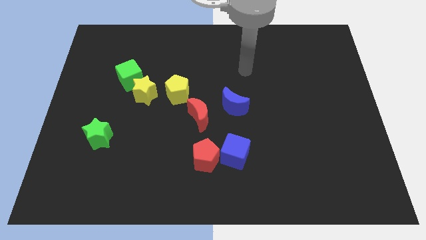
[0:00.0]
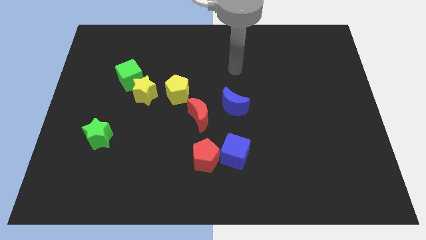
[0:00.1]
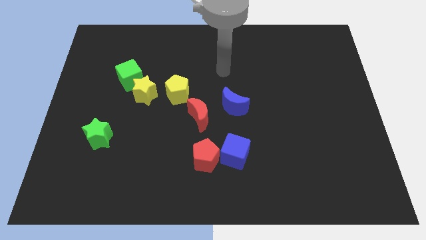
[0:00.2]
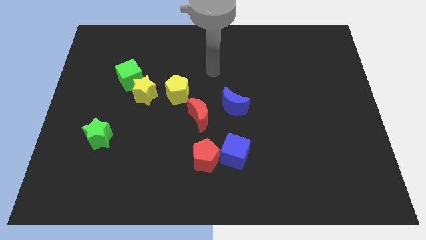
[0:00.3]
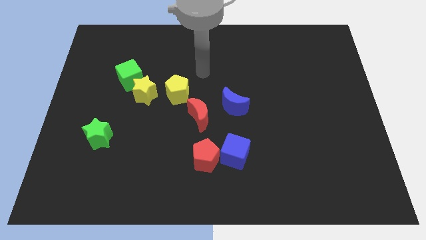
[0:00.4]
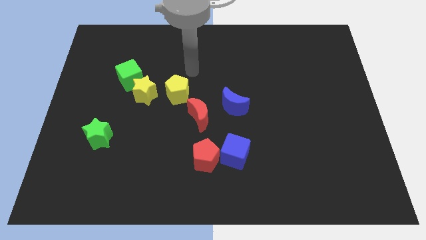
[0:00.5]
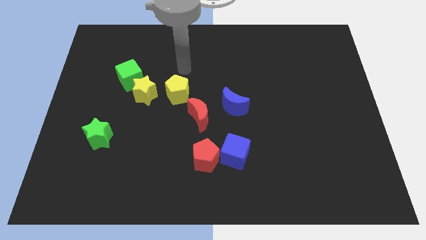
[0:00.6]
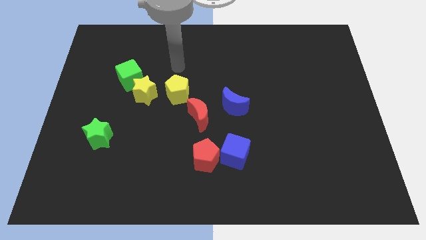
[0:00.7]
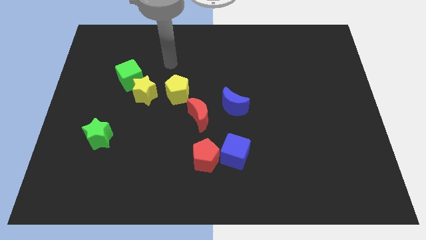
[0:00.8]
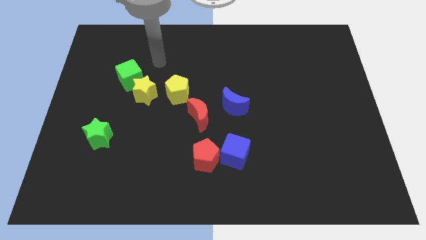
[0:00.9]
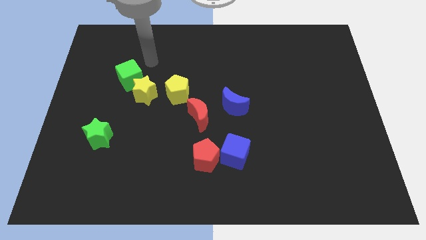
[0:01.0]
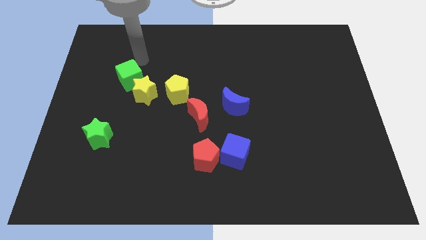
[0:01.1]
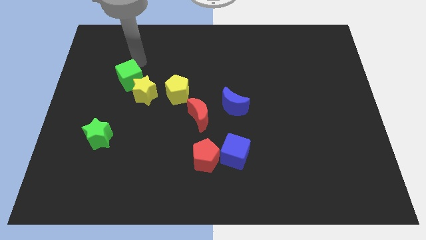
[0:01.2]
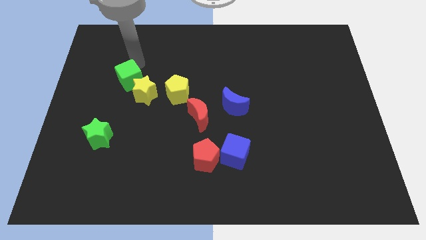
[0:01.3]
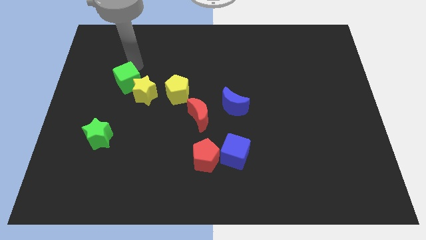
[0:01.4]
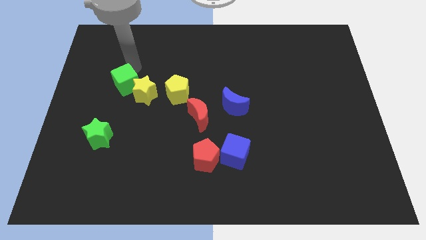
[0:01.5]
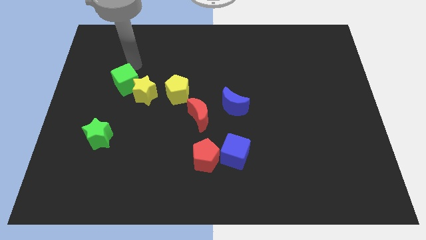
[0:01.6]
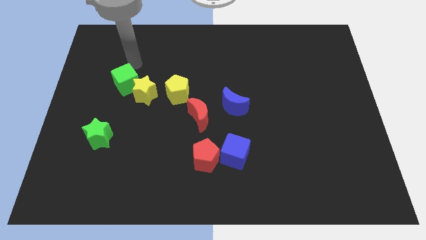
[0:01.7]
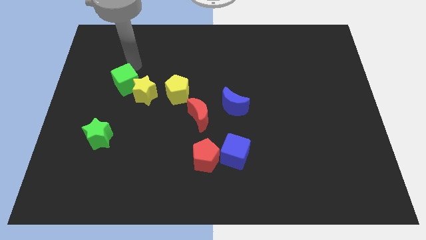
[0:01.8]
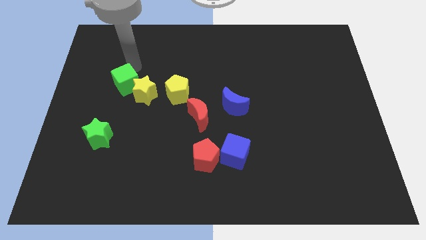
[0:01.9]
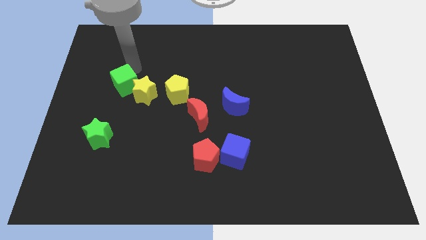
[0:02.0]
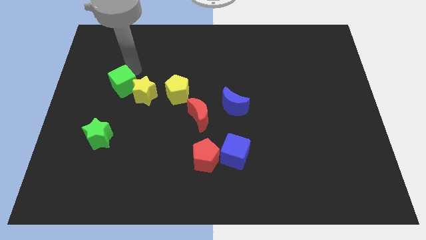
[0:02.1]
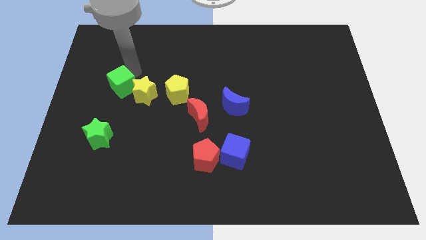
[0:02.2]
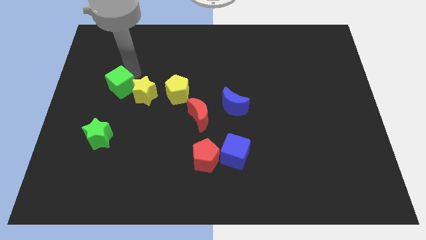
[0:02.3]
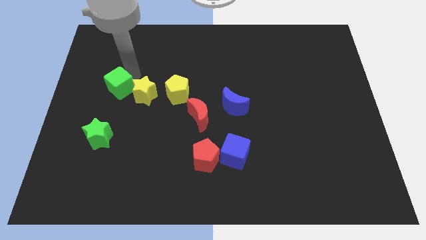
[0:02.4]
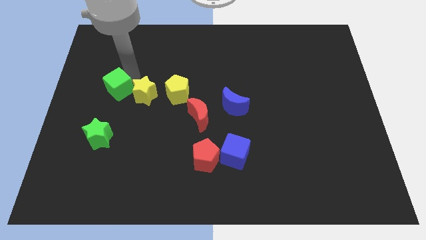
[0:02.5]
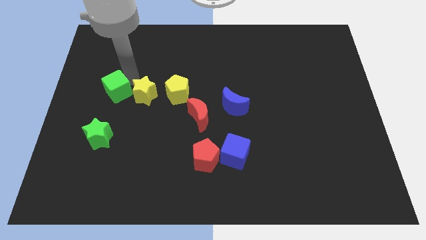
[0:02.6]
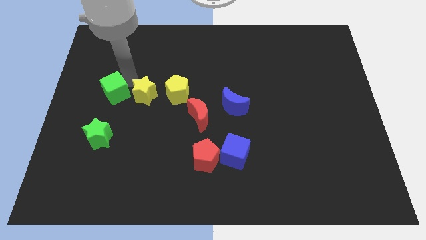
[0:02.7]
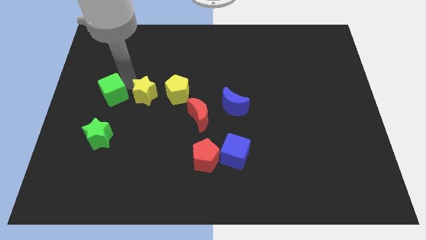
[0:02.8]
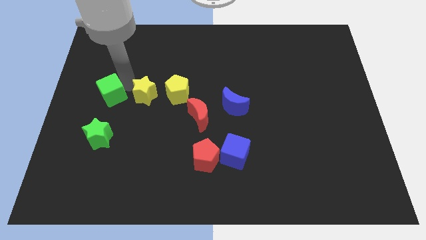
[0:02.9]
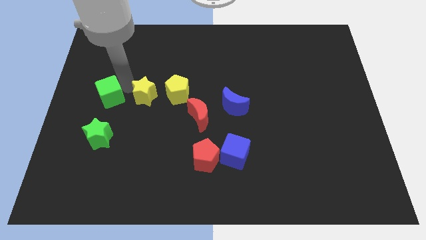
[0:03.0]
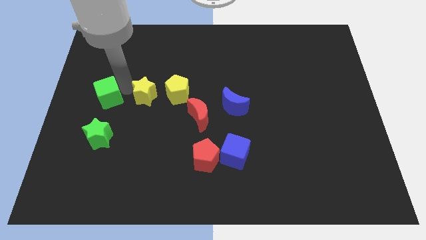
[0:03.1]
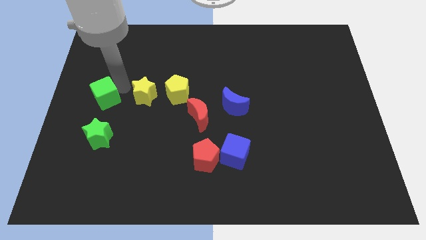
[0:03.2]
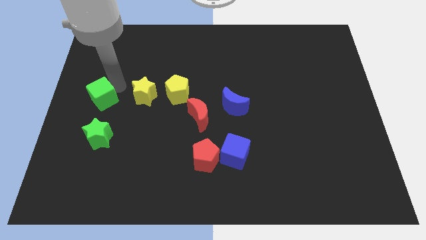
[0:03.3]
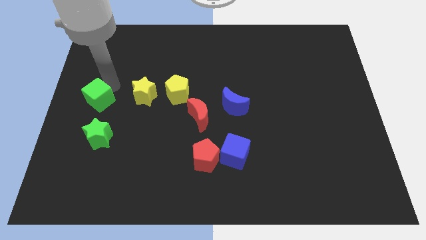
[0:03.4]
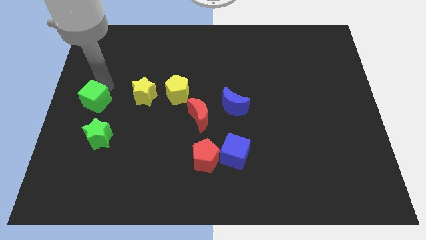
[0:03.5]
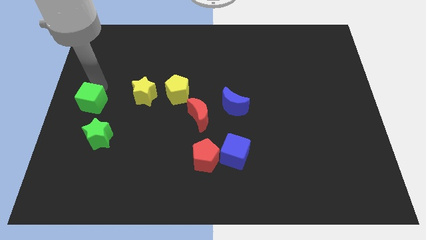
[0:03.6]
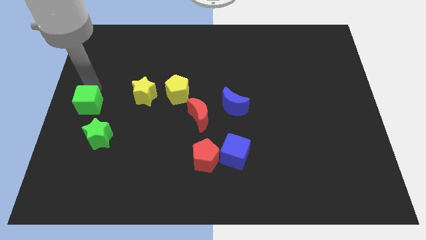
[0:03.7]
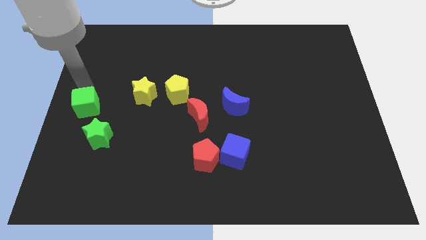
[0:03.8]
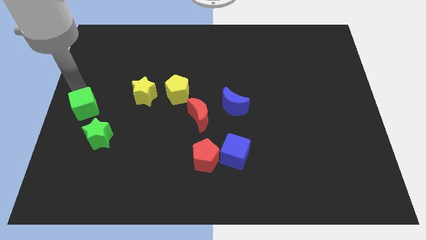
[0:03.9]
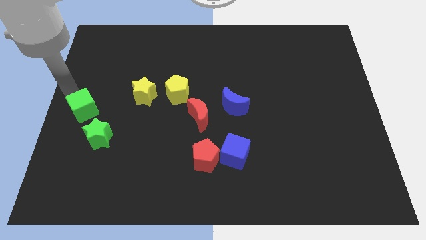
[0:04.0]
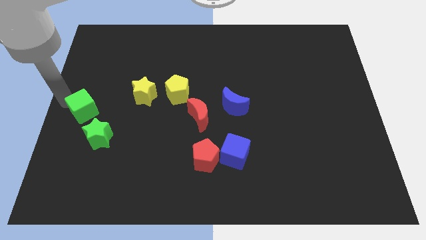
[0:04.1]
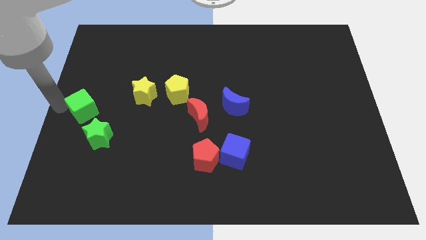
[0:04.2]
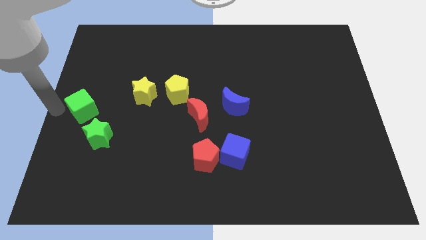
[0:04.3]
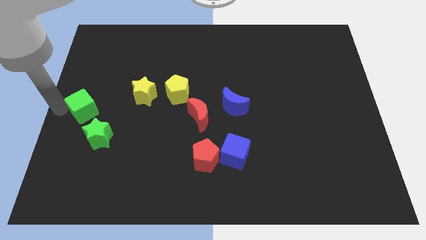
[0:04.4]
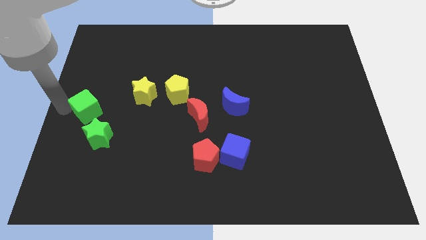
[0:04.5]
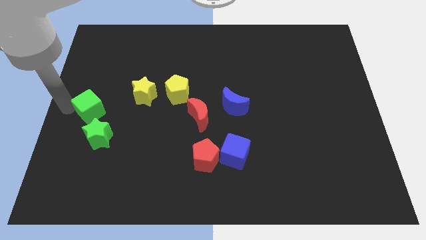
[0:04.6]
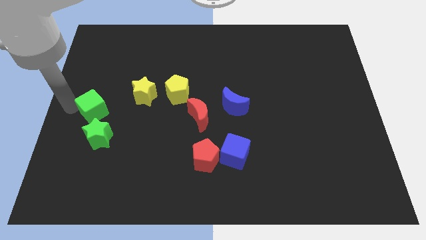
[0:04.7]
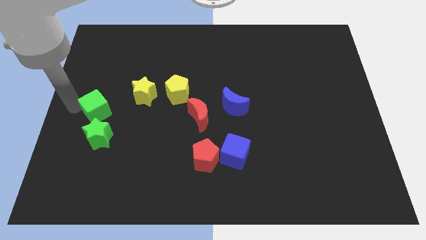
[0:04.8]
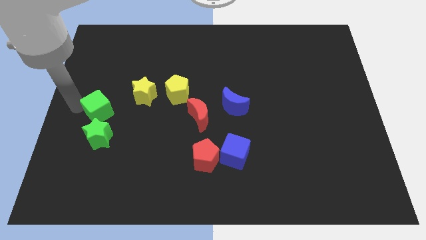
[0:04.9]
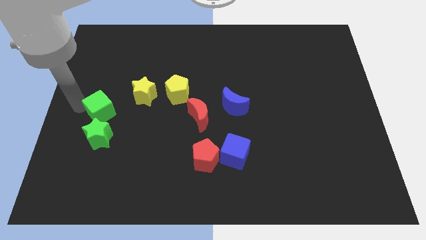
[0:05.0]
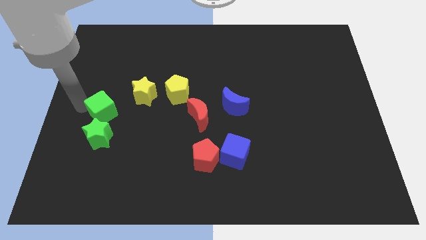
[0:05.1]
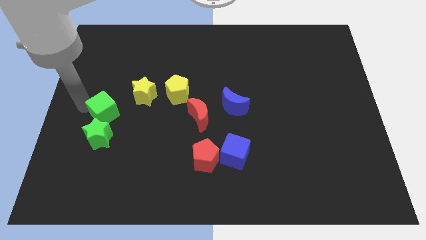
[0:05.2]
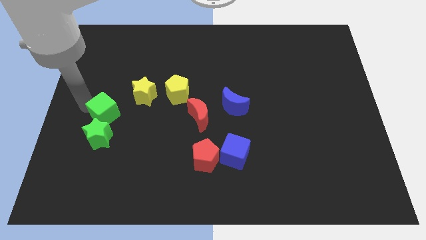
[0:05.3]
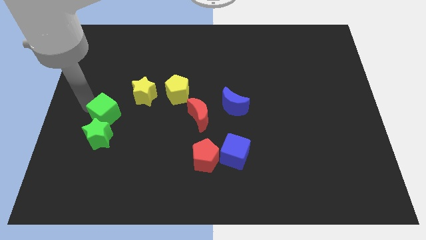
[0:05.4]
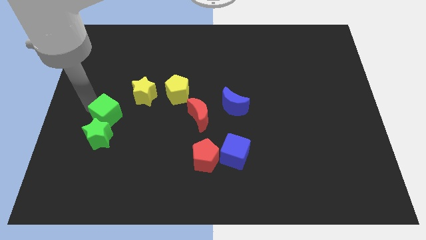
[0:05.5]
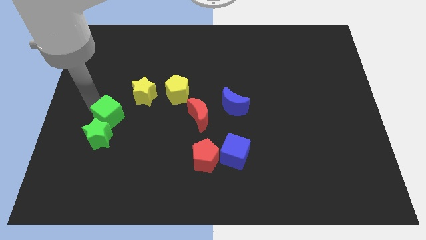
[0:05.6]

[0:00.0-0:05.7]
push the green cube towards the green star
